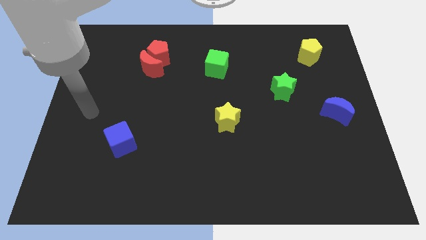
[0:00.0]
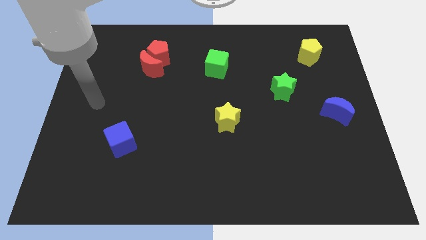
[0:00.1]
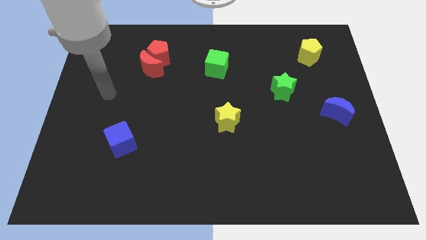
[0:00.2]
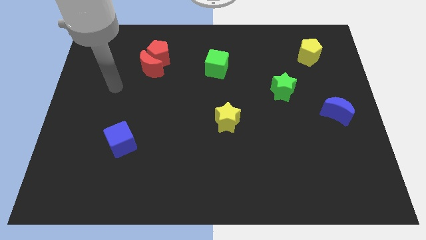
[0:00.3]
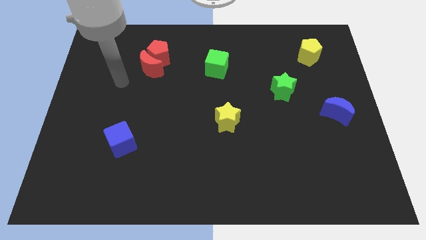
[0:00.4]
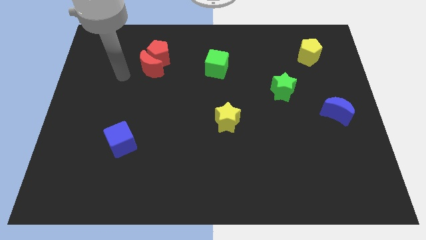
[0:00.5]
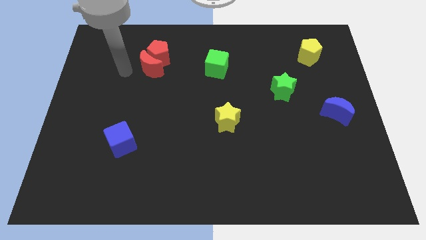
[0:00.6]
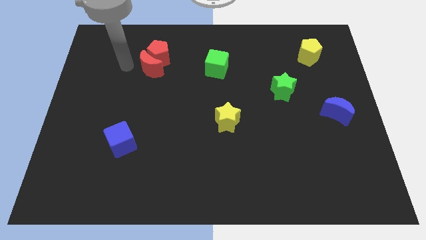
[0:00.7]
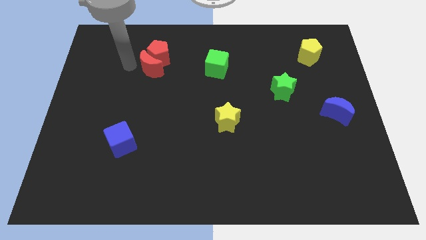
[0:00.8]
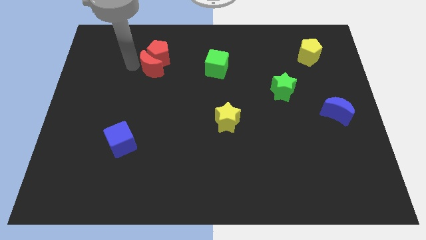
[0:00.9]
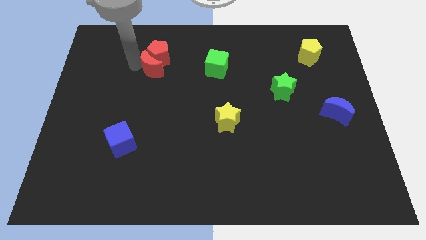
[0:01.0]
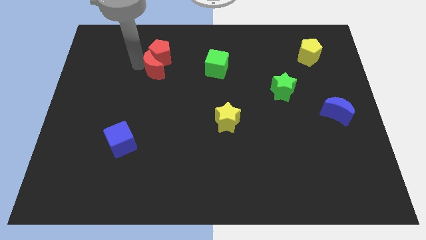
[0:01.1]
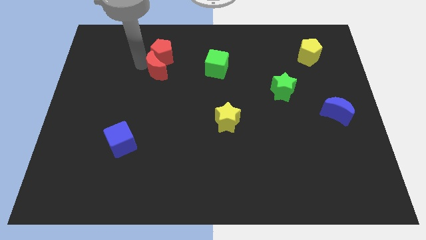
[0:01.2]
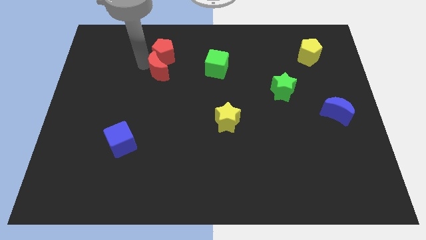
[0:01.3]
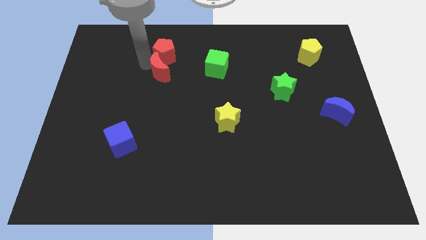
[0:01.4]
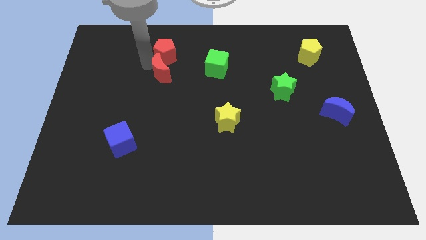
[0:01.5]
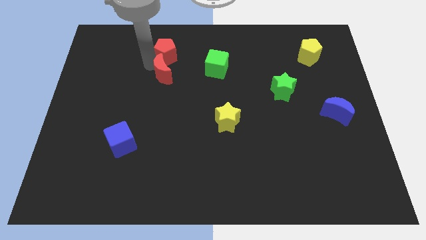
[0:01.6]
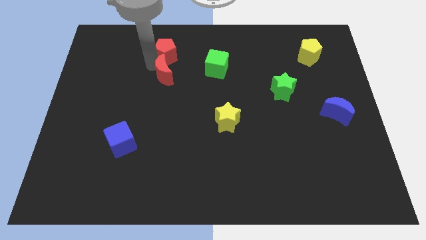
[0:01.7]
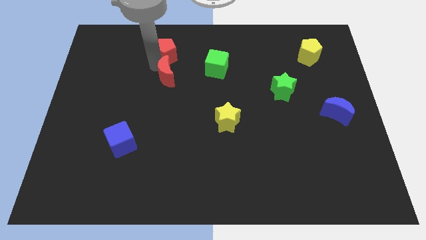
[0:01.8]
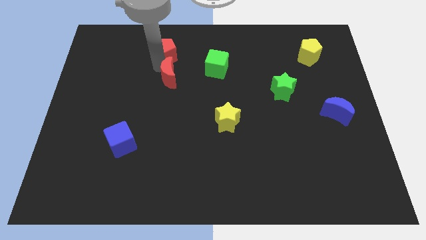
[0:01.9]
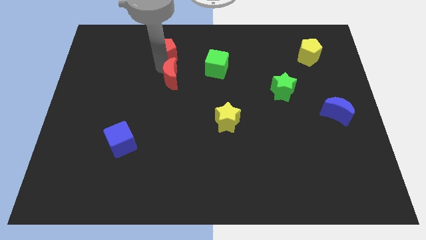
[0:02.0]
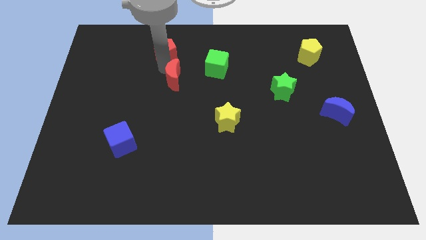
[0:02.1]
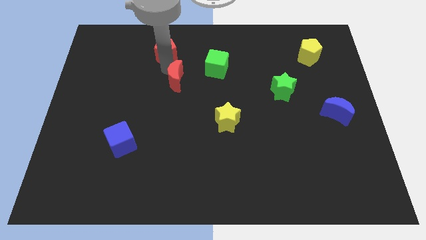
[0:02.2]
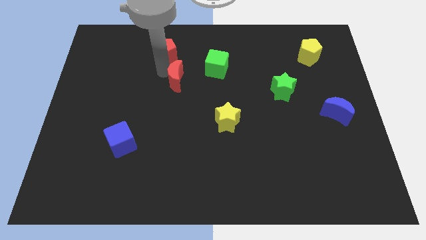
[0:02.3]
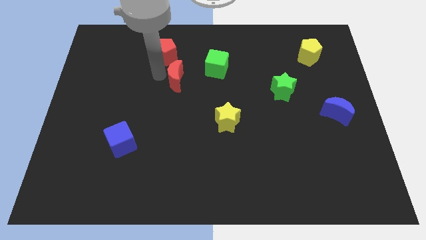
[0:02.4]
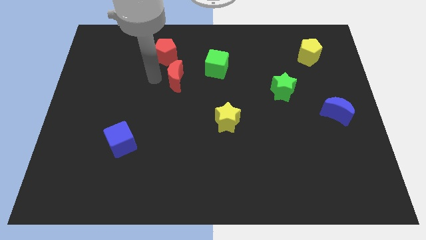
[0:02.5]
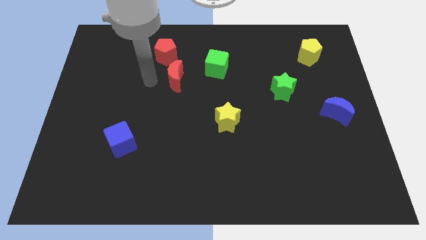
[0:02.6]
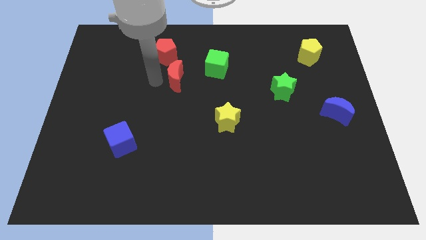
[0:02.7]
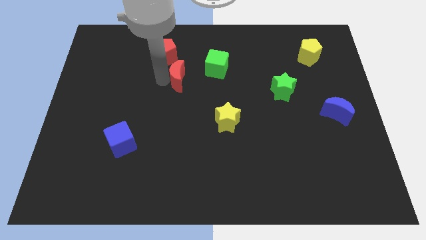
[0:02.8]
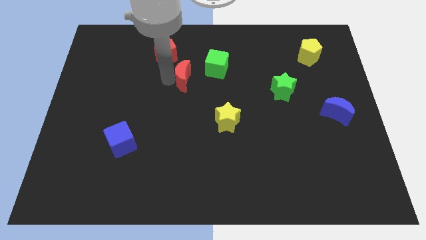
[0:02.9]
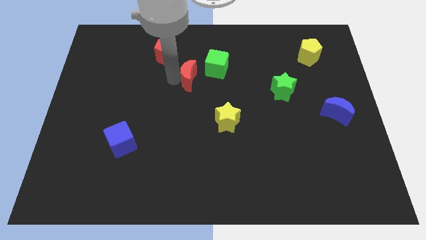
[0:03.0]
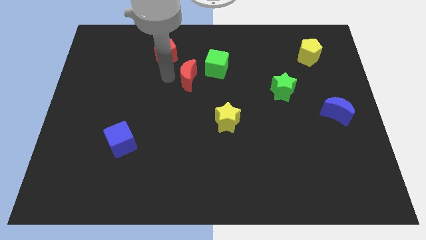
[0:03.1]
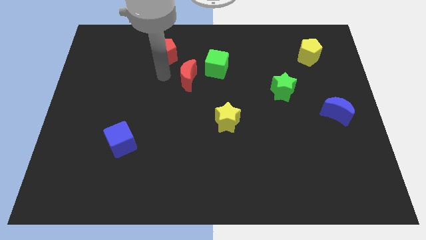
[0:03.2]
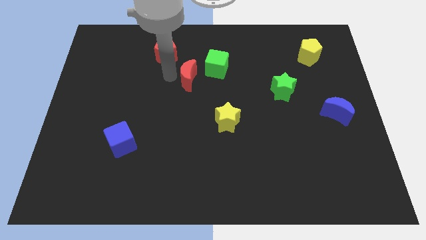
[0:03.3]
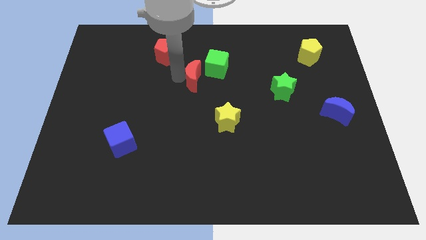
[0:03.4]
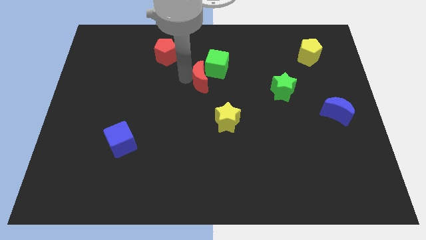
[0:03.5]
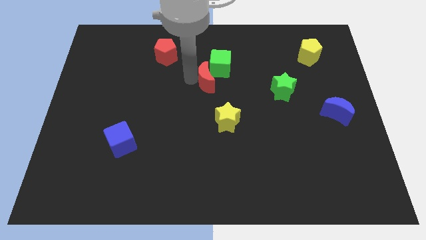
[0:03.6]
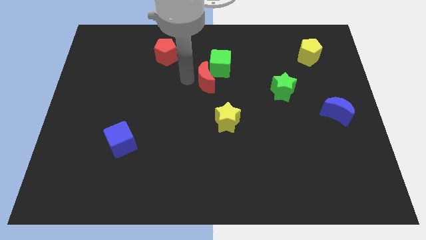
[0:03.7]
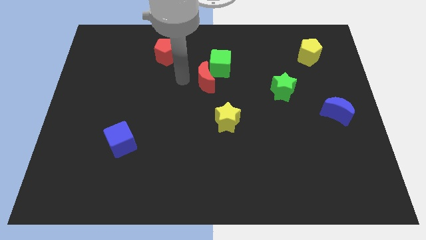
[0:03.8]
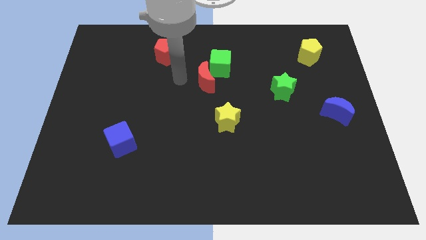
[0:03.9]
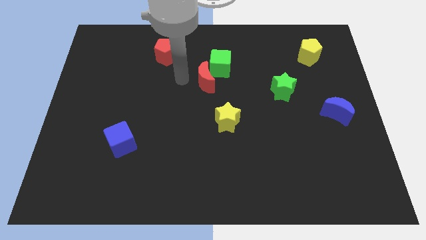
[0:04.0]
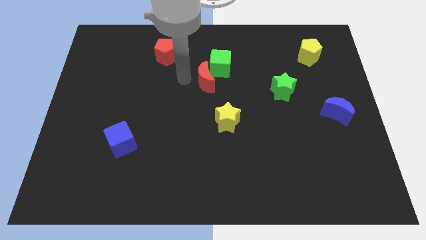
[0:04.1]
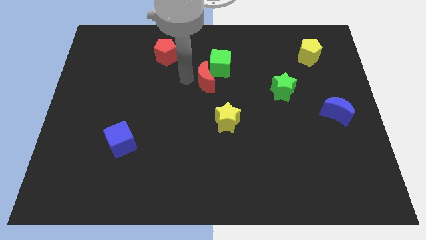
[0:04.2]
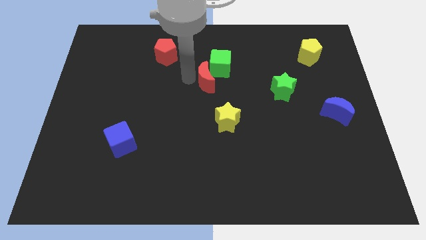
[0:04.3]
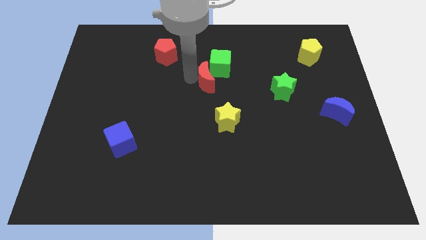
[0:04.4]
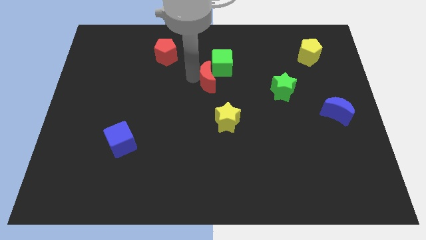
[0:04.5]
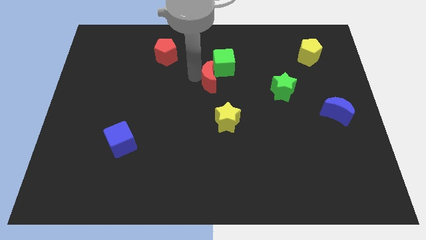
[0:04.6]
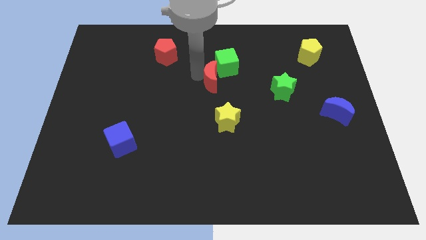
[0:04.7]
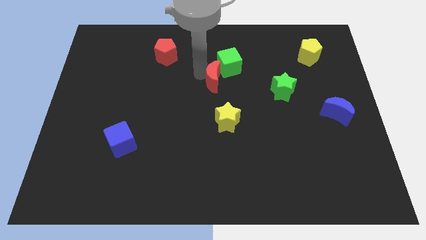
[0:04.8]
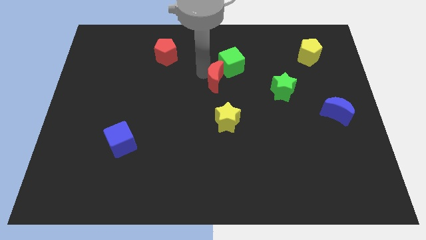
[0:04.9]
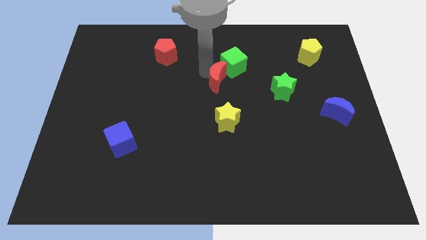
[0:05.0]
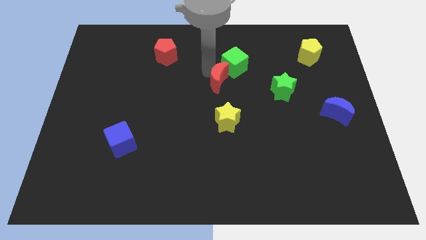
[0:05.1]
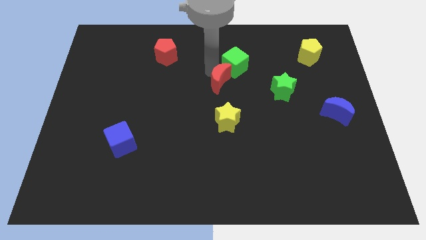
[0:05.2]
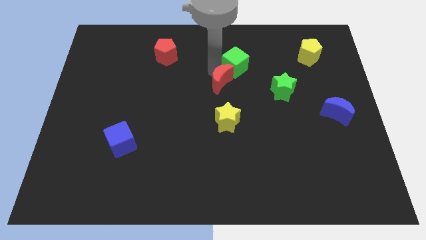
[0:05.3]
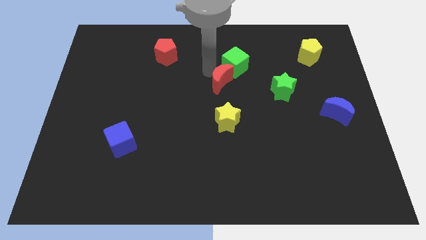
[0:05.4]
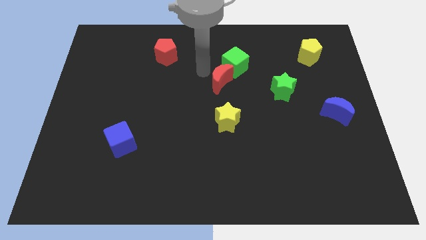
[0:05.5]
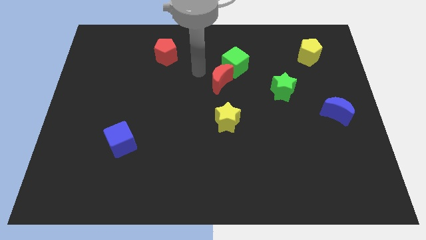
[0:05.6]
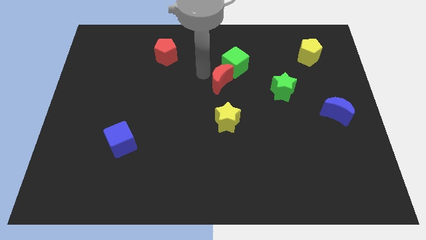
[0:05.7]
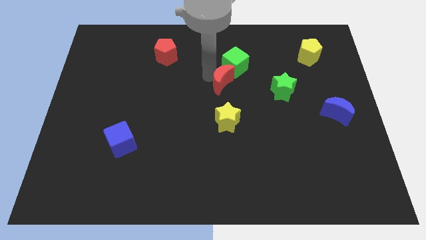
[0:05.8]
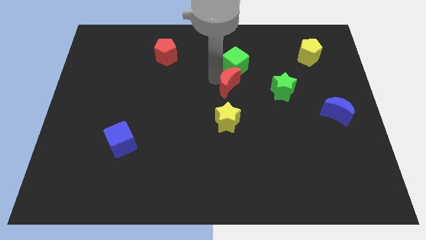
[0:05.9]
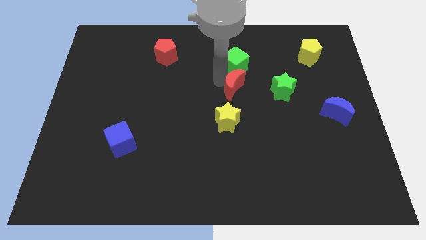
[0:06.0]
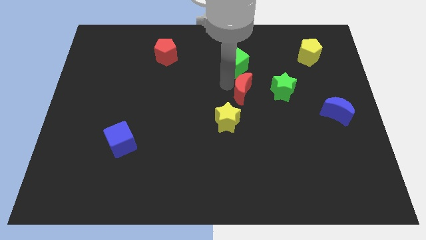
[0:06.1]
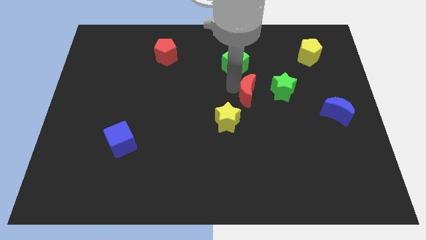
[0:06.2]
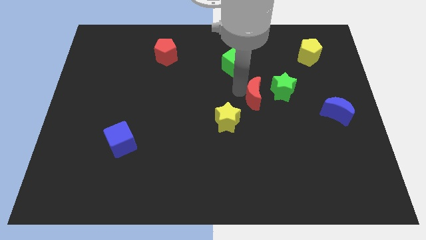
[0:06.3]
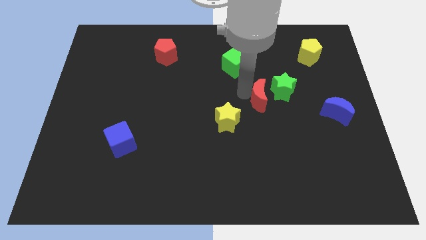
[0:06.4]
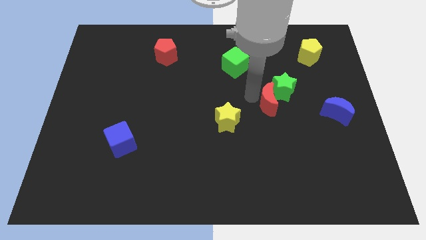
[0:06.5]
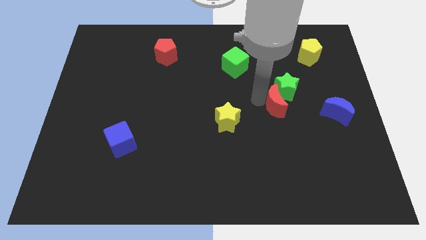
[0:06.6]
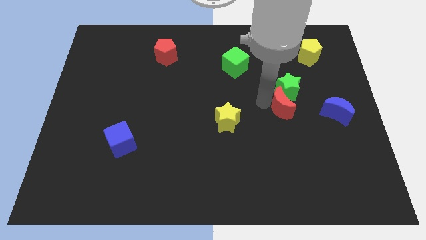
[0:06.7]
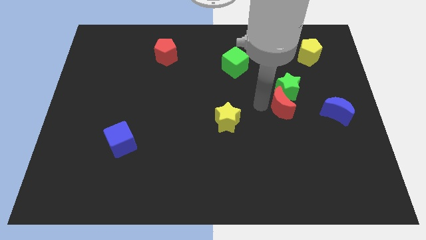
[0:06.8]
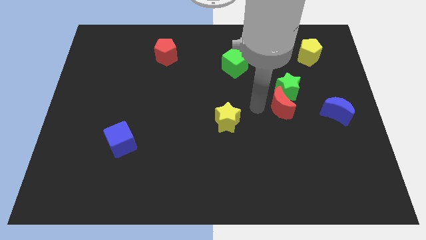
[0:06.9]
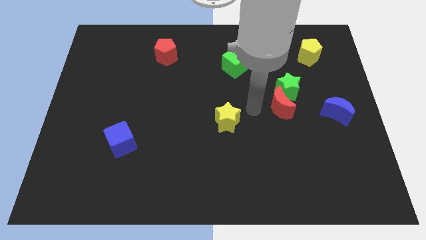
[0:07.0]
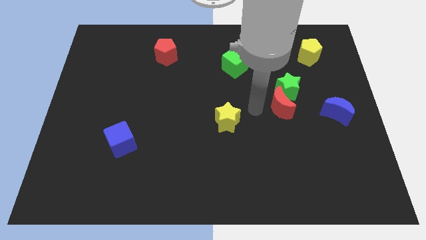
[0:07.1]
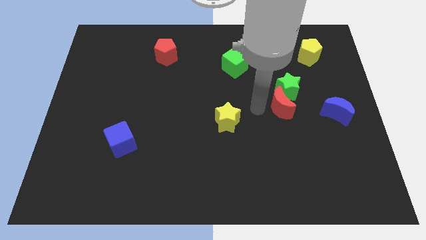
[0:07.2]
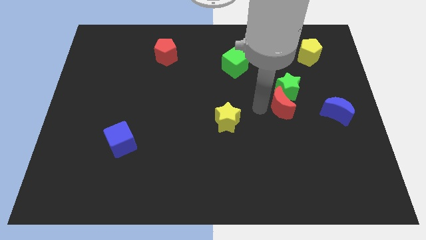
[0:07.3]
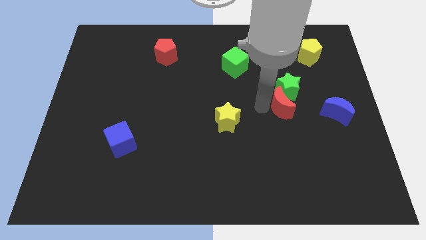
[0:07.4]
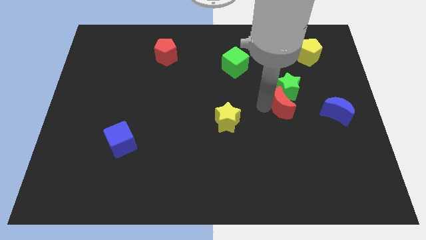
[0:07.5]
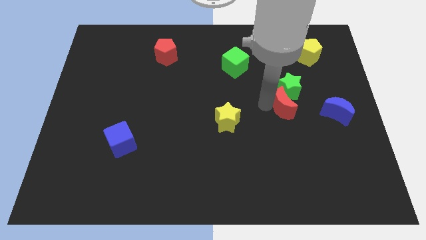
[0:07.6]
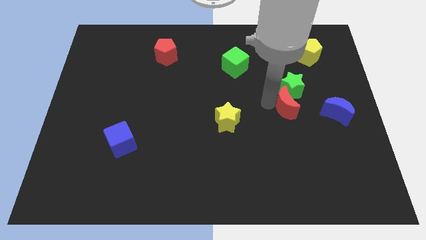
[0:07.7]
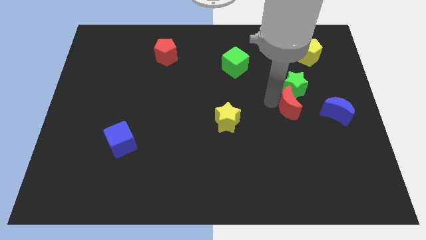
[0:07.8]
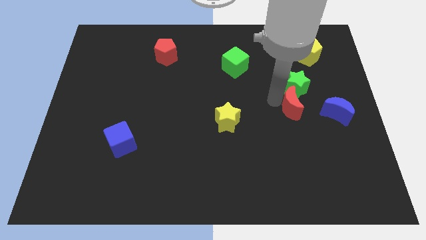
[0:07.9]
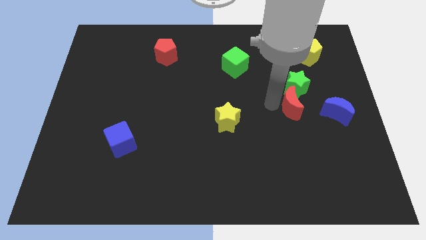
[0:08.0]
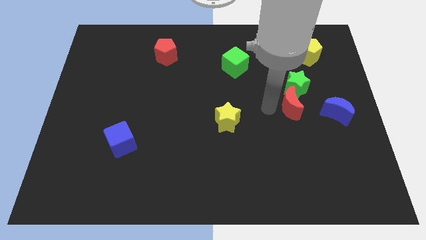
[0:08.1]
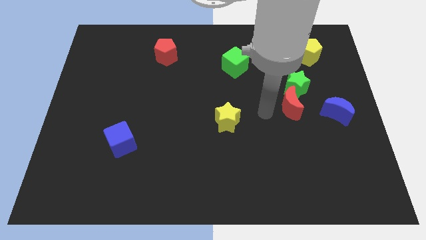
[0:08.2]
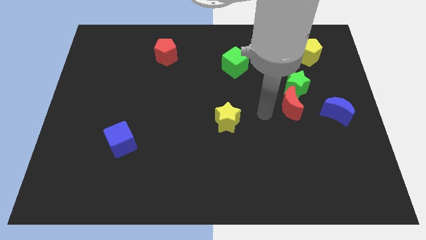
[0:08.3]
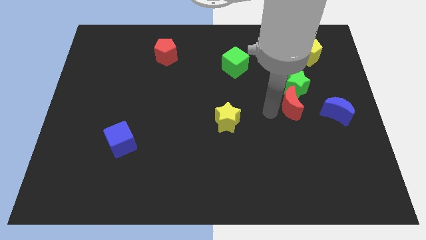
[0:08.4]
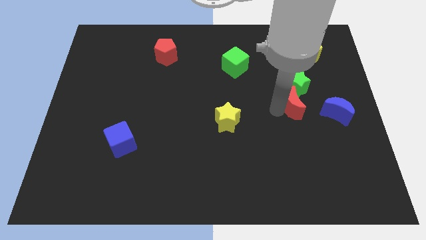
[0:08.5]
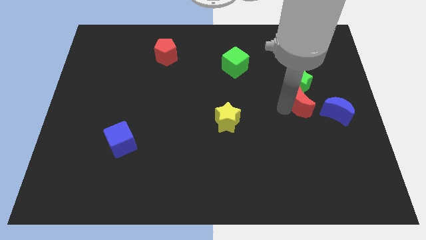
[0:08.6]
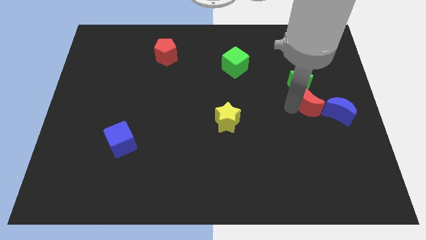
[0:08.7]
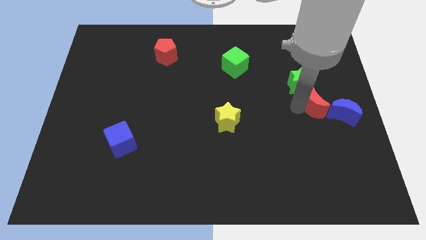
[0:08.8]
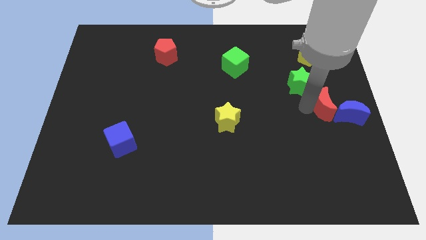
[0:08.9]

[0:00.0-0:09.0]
move the red moon to the right side
